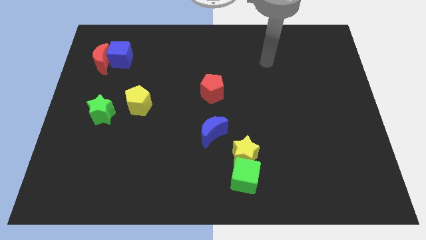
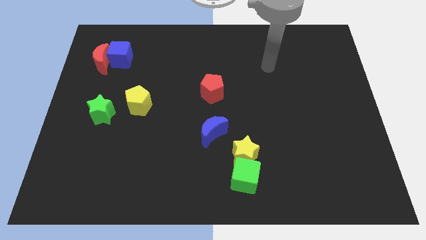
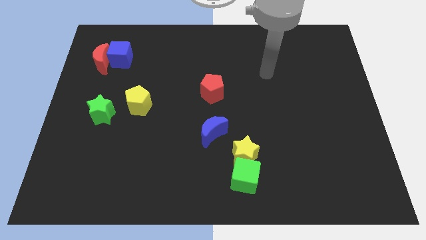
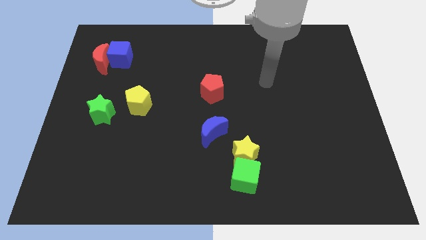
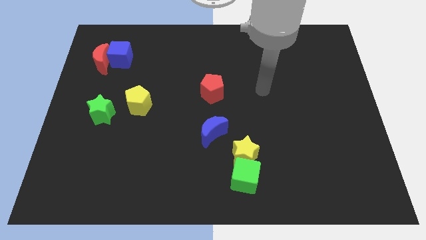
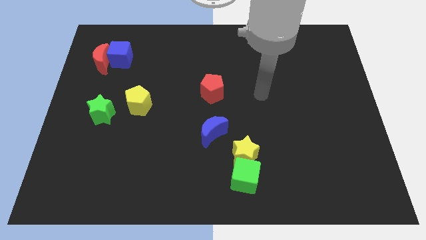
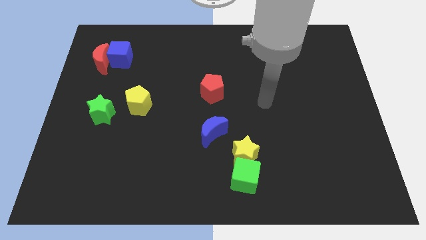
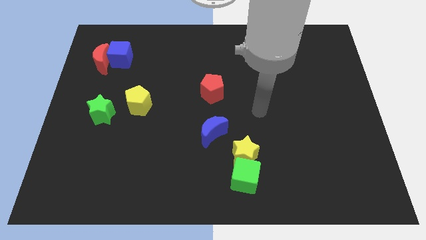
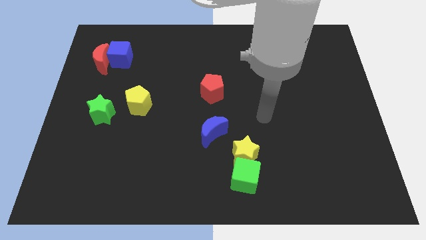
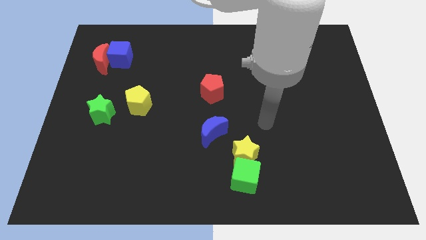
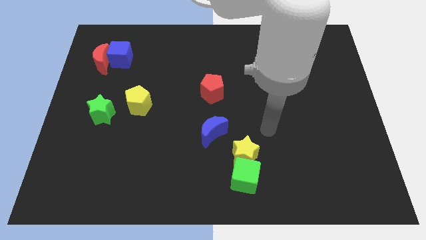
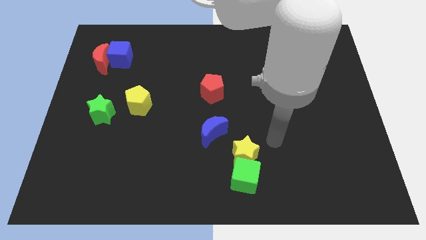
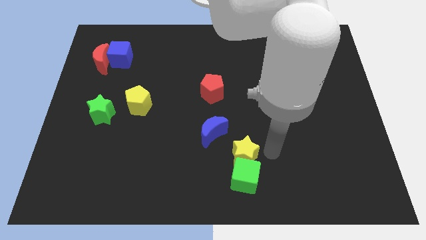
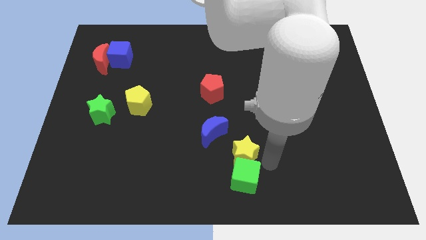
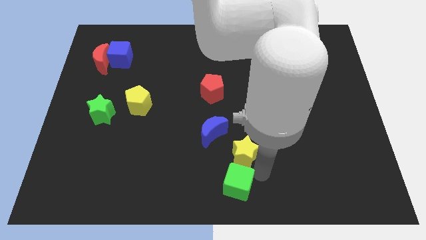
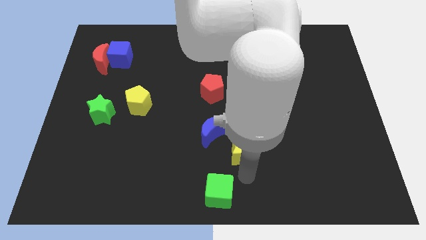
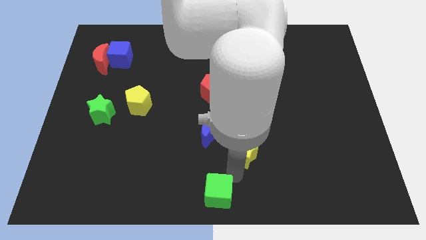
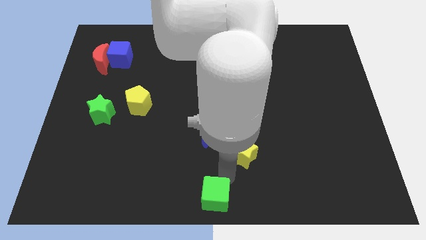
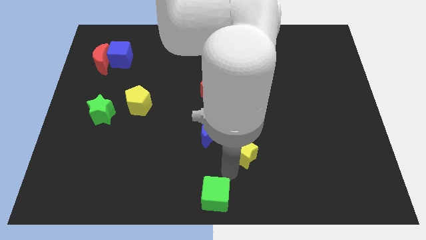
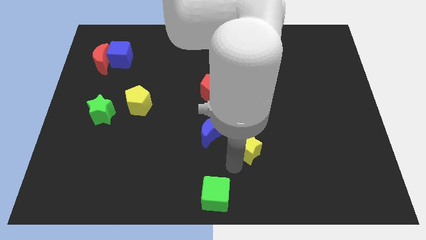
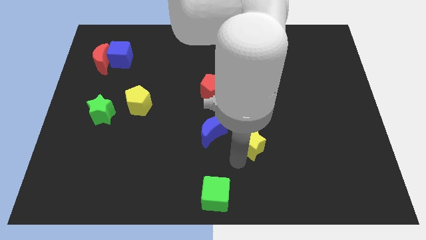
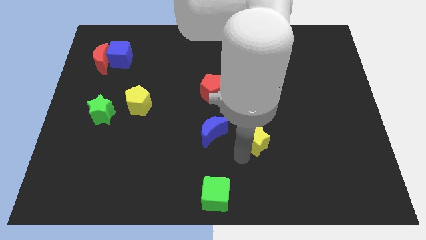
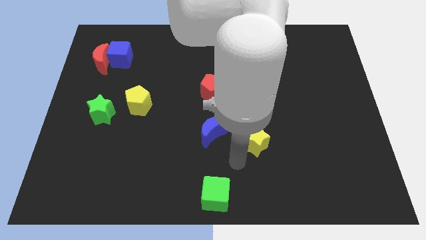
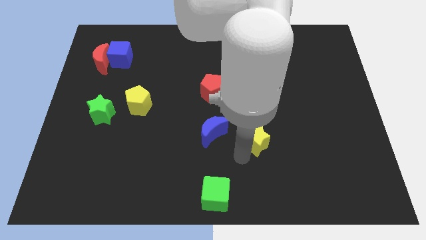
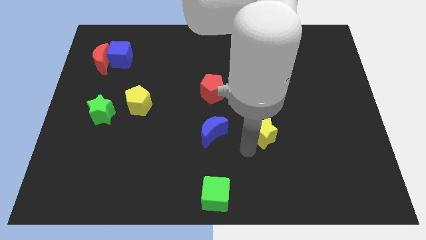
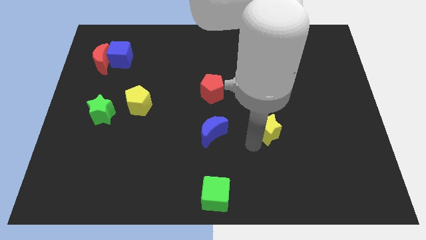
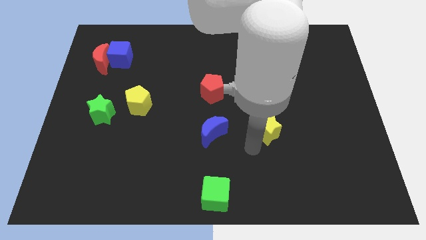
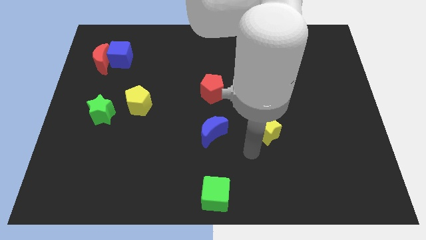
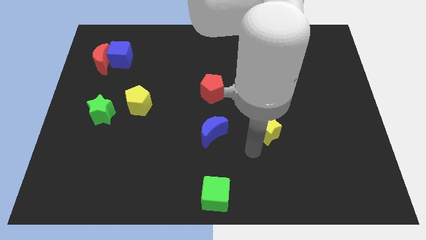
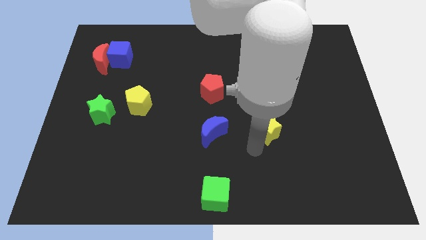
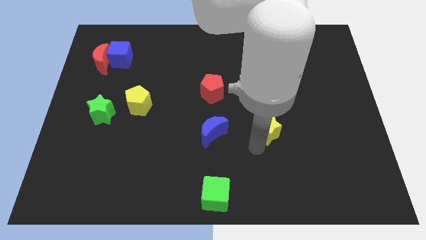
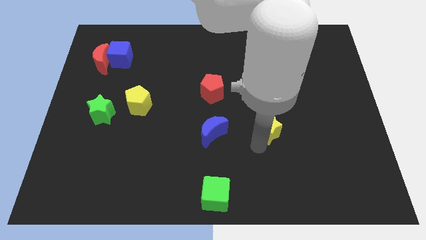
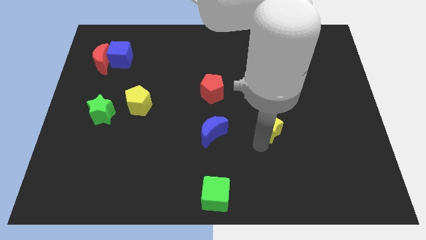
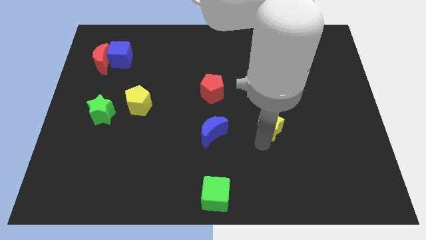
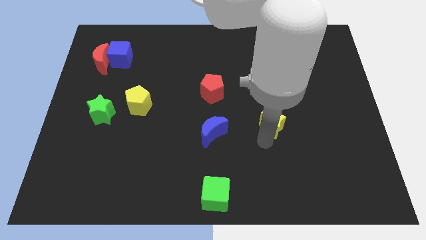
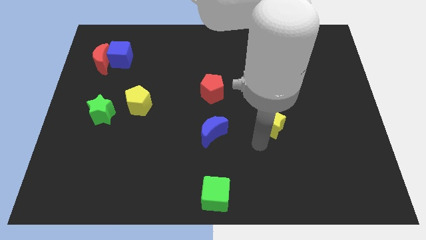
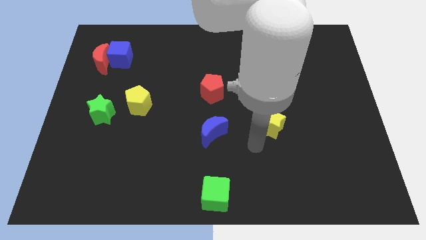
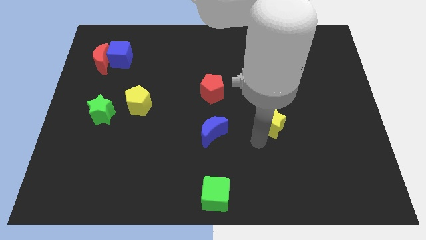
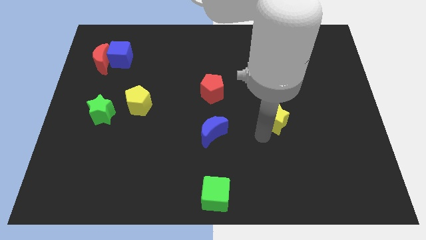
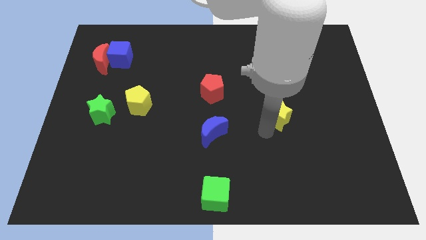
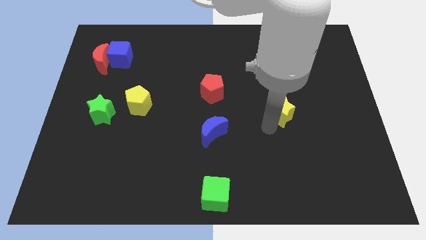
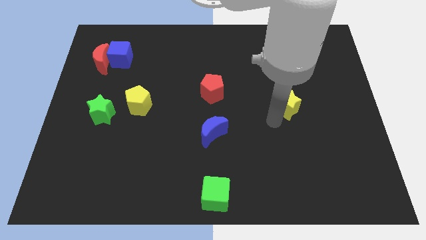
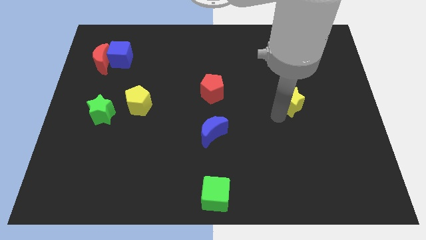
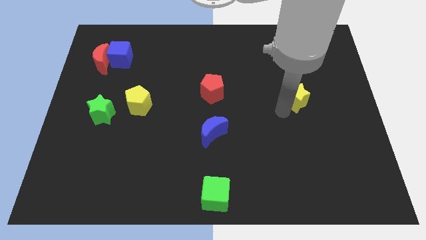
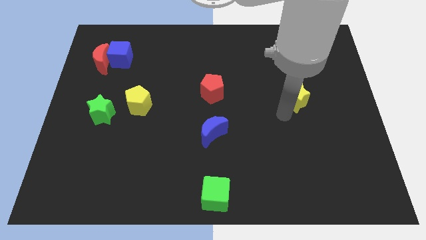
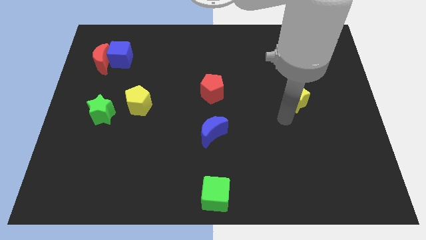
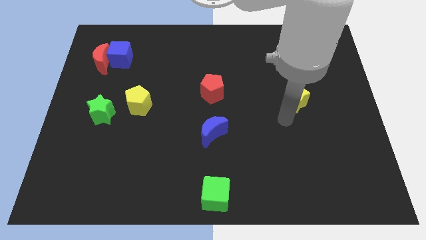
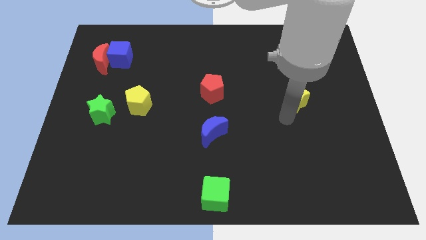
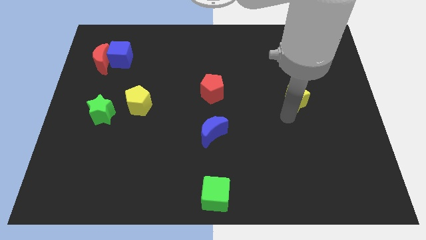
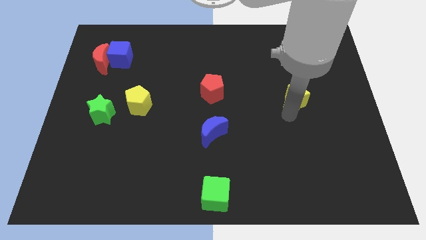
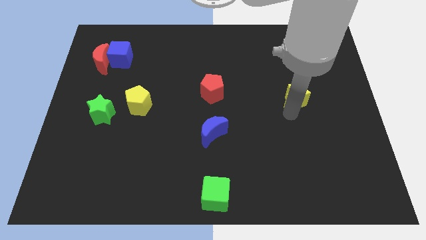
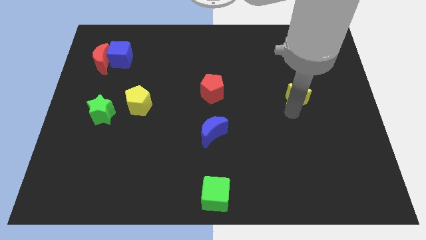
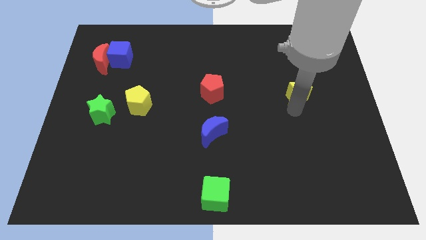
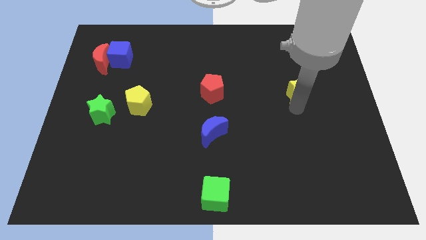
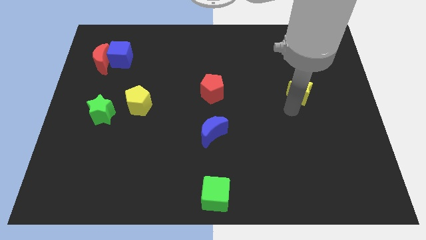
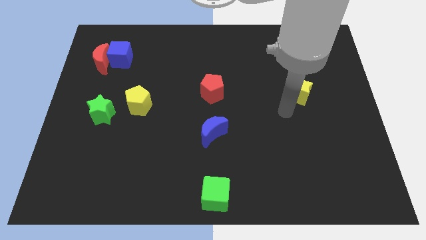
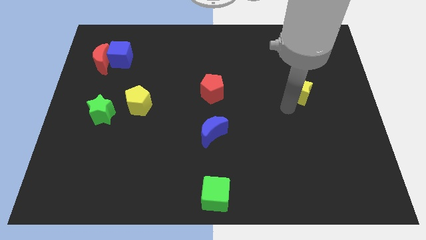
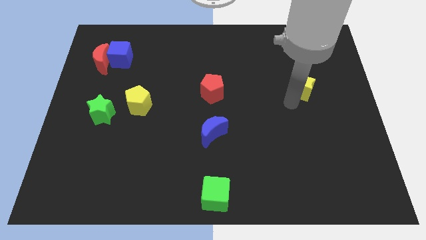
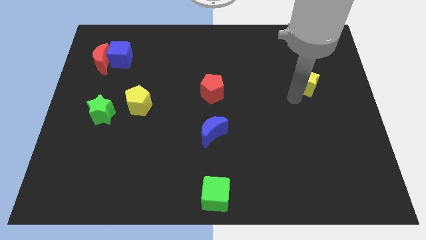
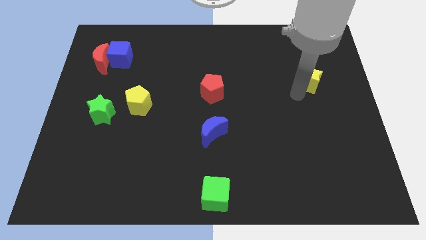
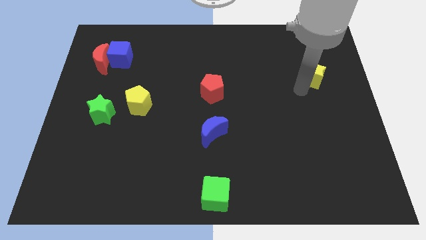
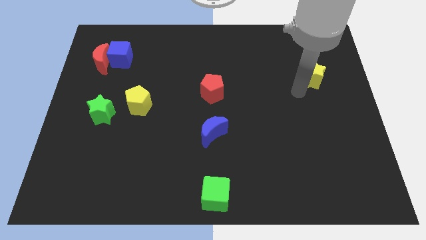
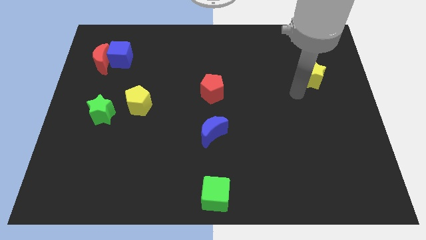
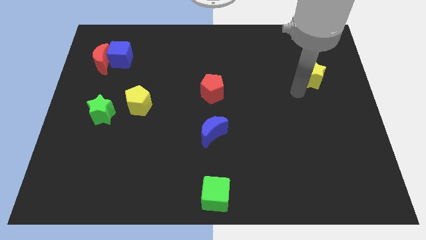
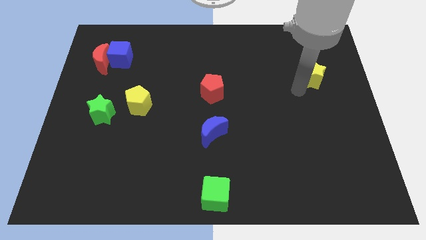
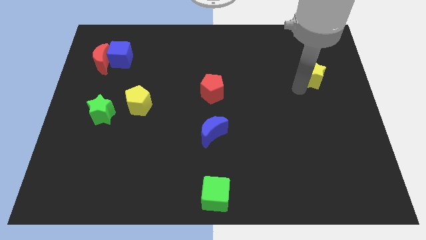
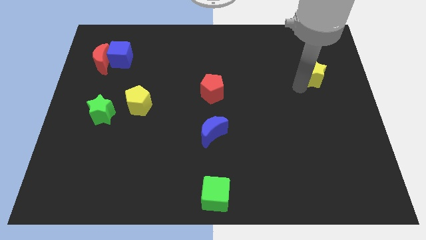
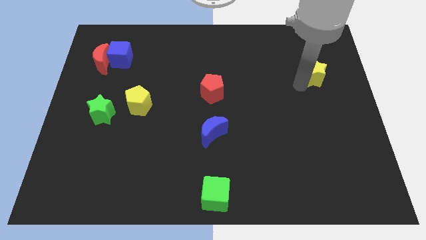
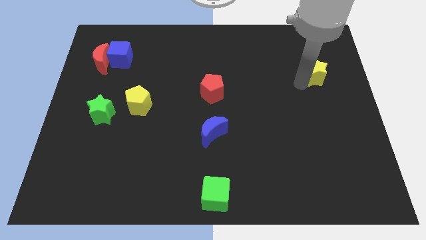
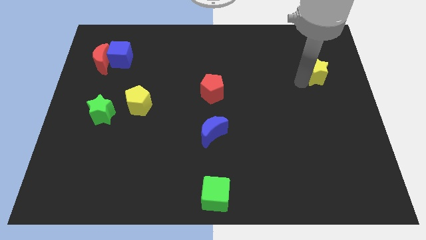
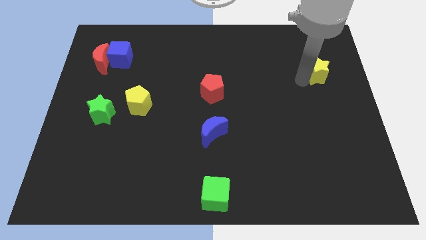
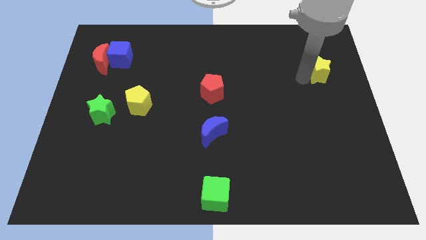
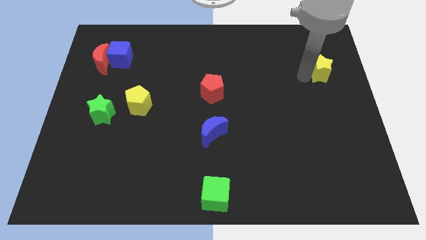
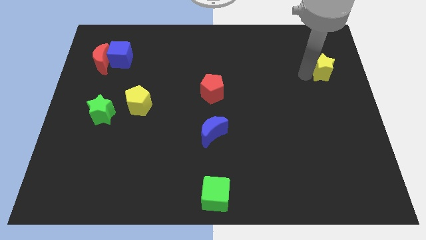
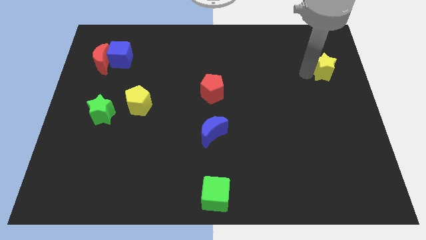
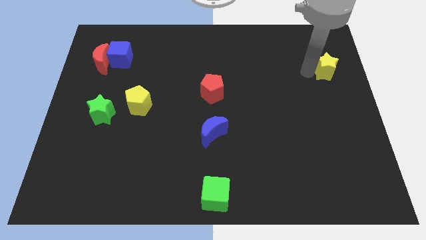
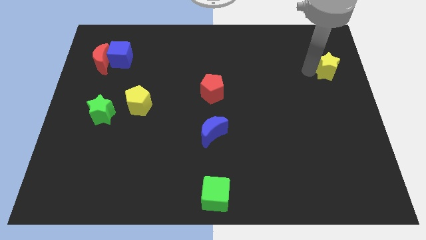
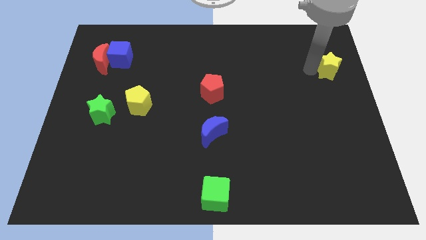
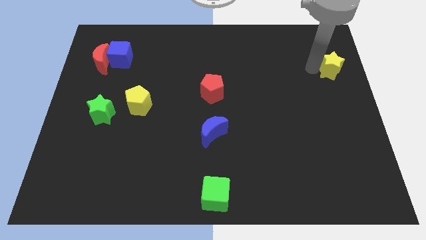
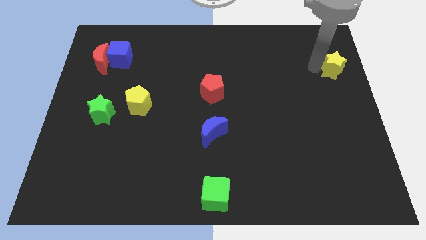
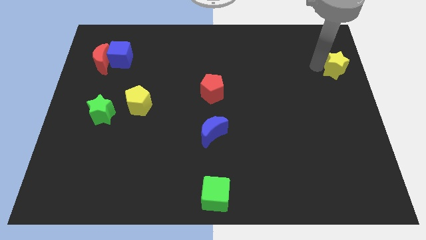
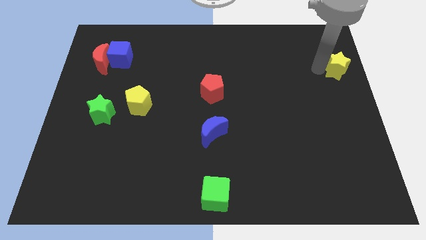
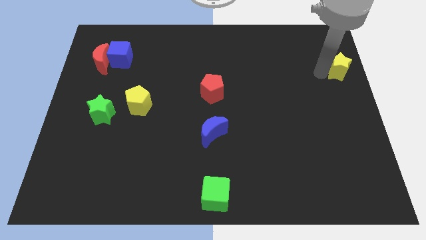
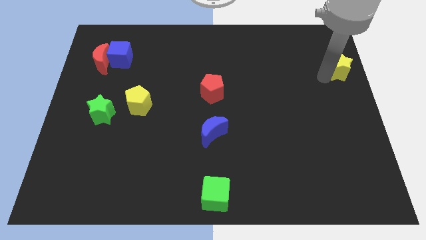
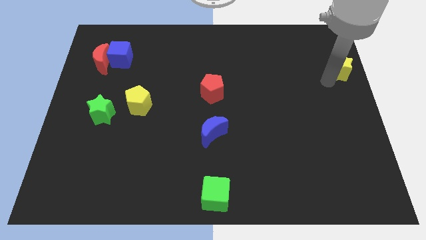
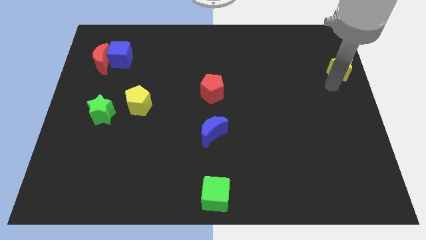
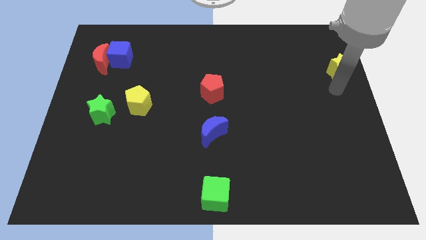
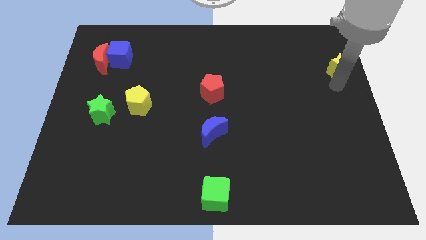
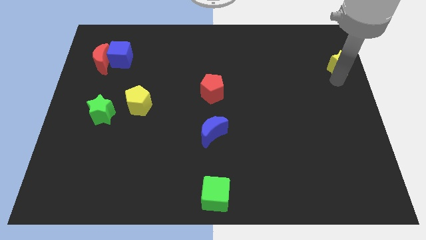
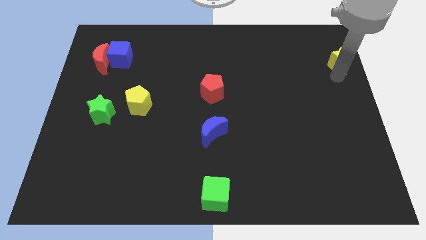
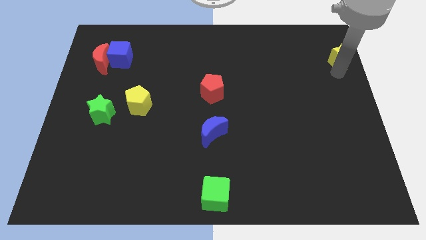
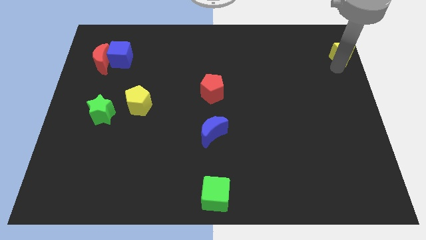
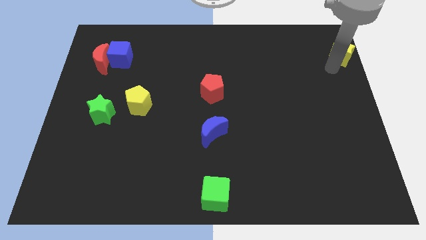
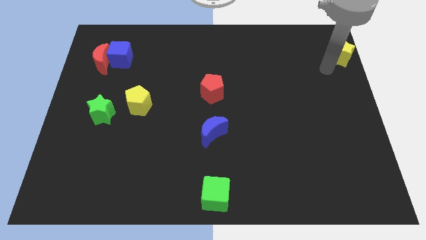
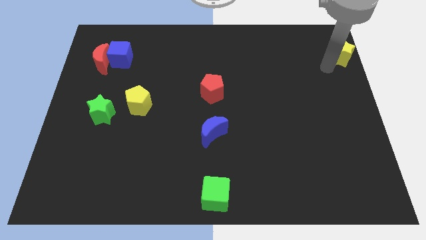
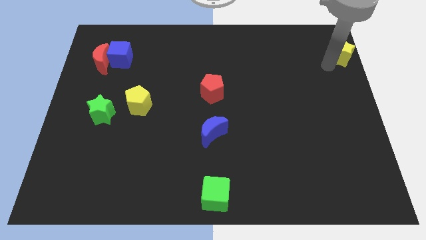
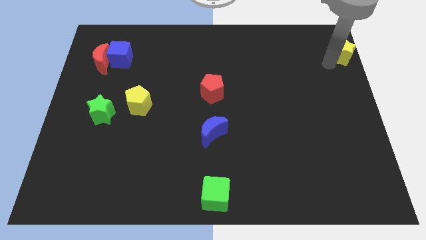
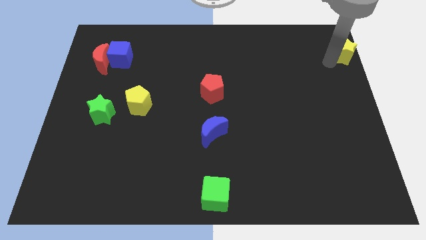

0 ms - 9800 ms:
put the yellow star to the top right of the board
